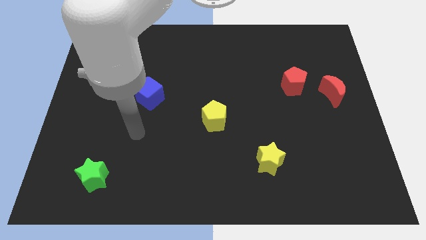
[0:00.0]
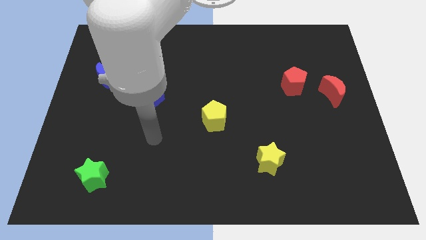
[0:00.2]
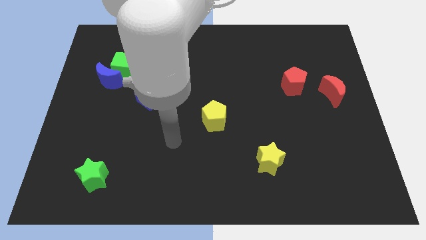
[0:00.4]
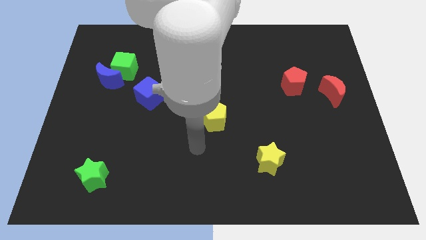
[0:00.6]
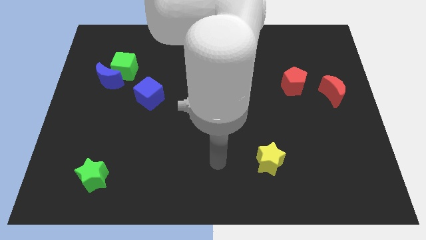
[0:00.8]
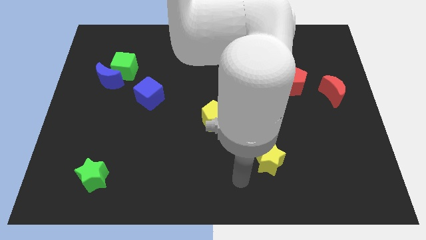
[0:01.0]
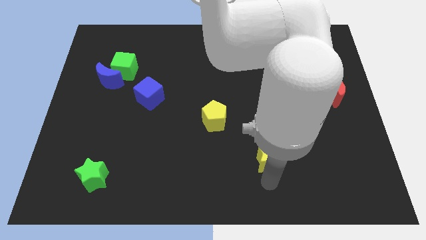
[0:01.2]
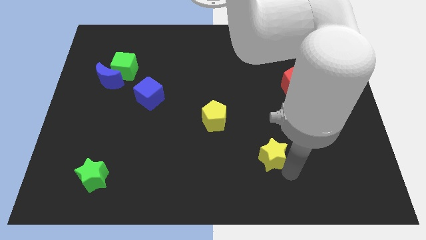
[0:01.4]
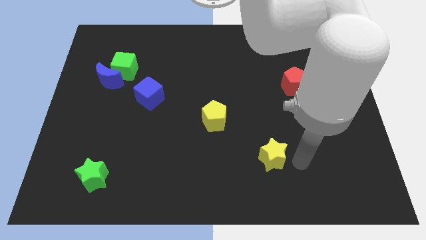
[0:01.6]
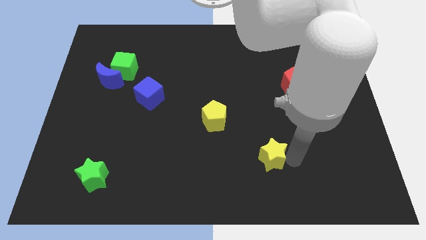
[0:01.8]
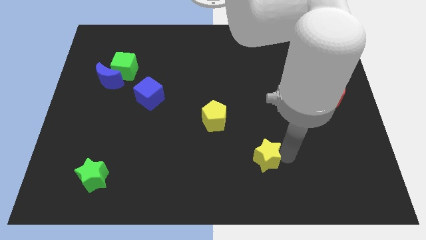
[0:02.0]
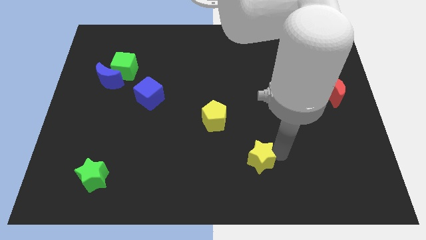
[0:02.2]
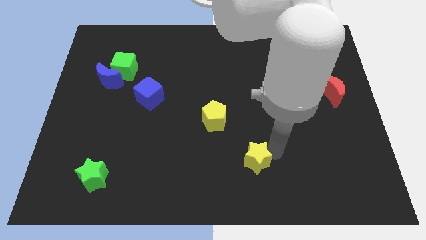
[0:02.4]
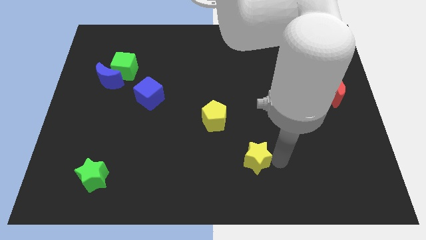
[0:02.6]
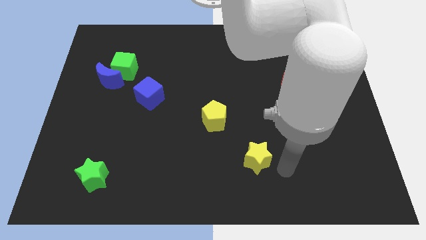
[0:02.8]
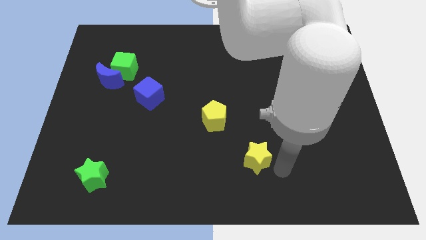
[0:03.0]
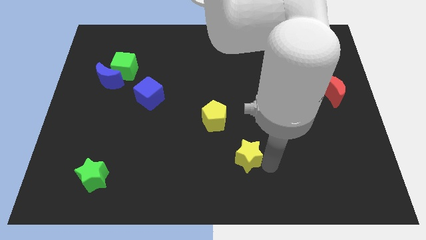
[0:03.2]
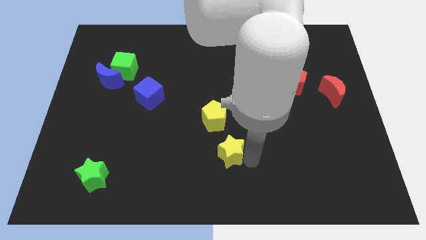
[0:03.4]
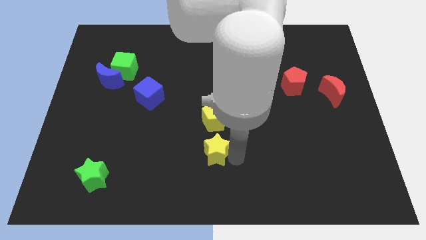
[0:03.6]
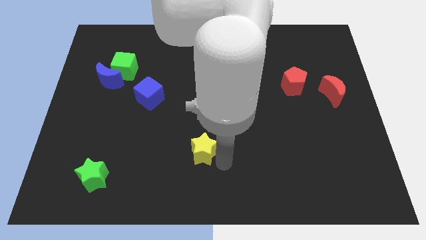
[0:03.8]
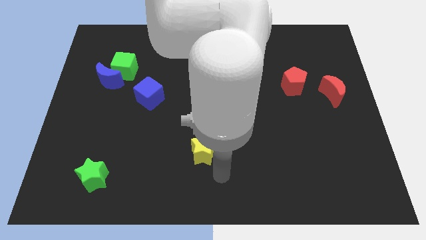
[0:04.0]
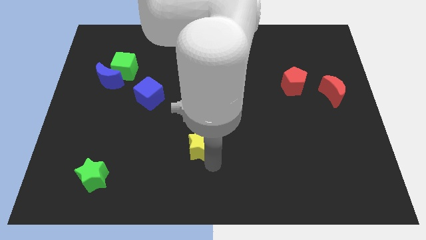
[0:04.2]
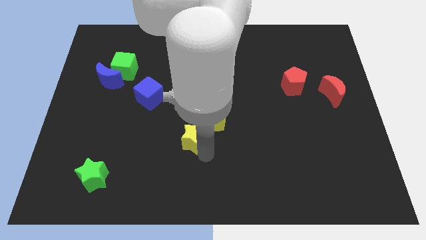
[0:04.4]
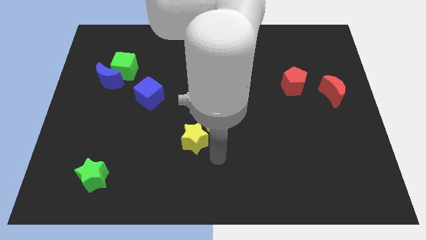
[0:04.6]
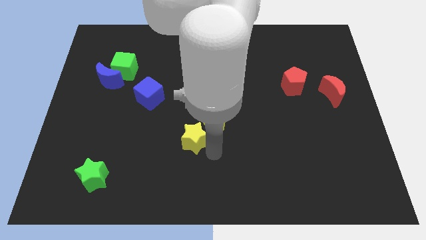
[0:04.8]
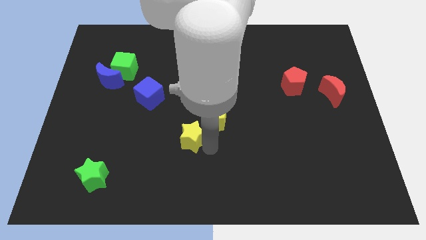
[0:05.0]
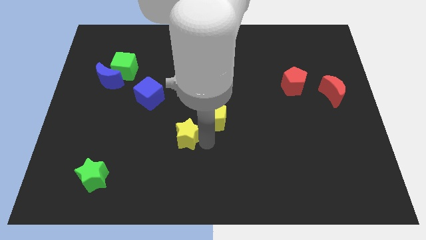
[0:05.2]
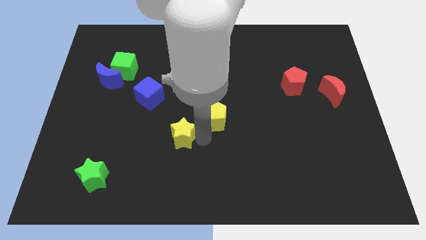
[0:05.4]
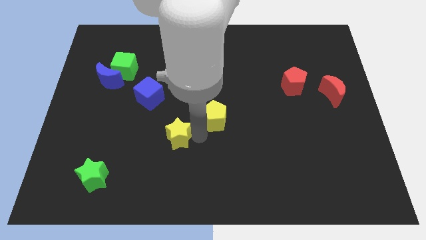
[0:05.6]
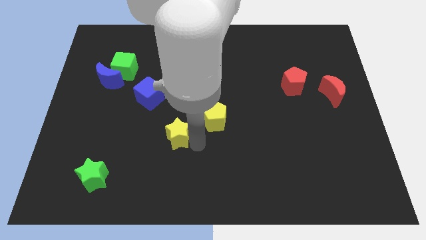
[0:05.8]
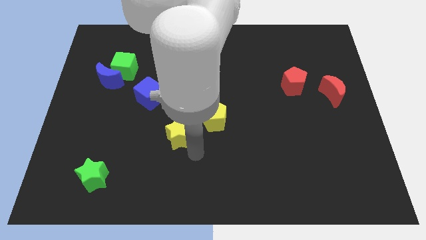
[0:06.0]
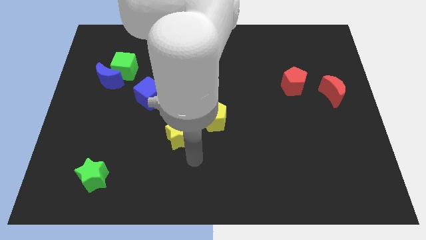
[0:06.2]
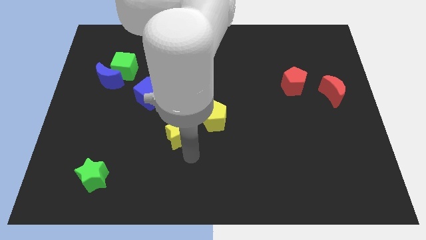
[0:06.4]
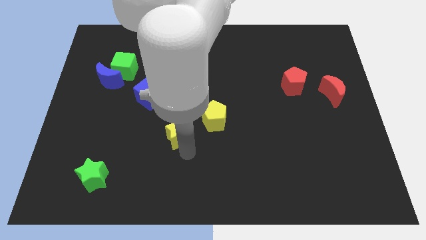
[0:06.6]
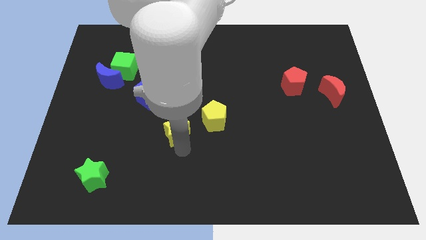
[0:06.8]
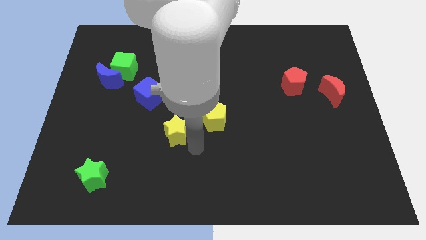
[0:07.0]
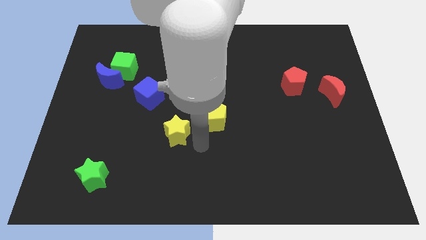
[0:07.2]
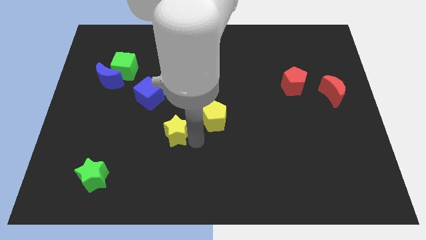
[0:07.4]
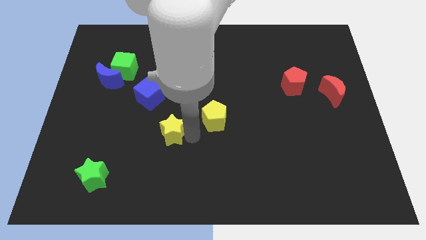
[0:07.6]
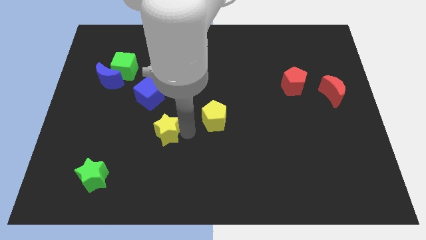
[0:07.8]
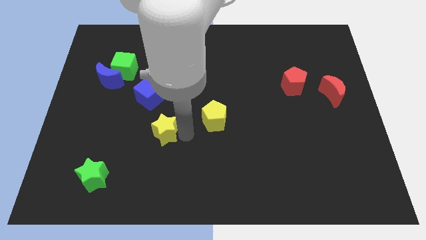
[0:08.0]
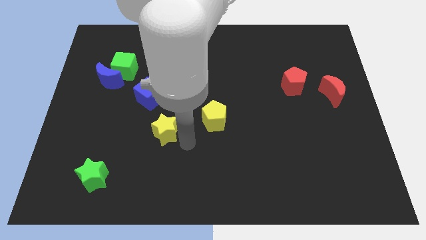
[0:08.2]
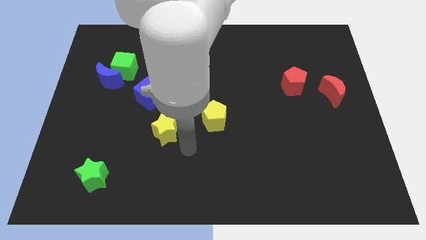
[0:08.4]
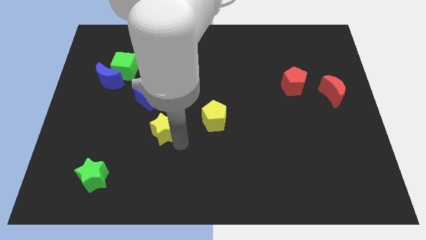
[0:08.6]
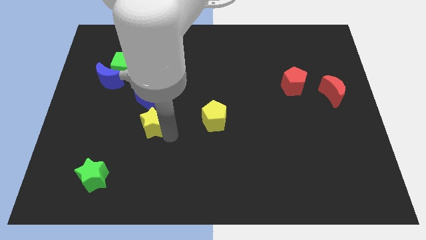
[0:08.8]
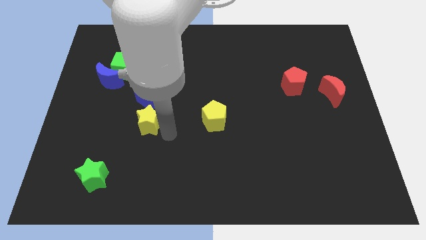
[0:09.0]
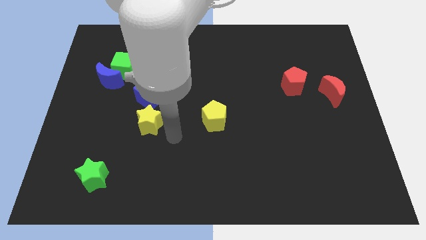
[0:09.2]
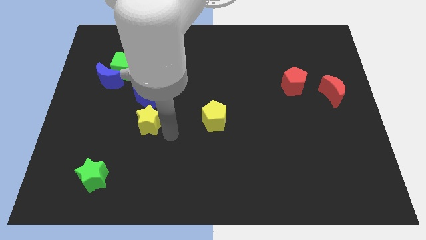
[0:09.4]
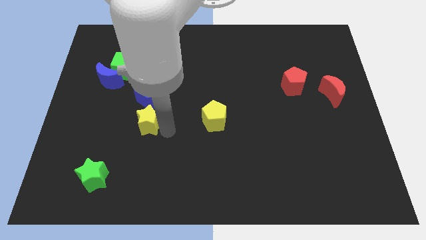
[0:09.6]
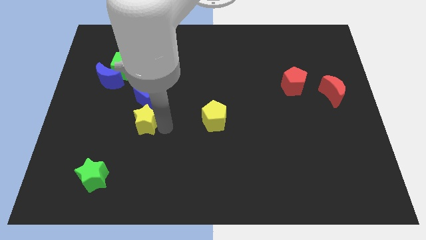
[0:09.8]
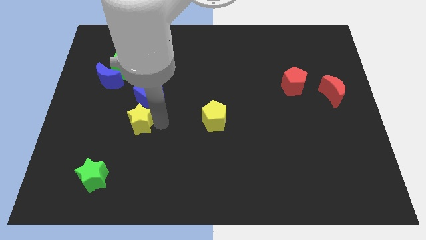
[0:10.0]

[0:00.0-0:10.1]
slide the yellow star to the bottom left side of the blue cube

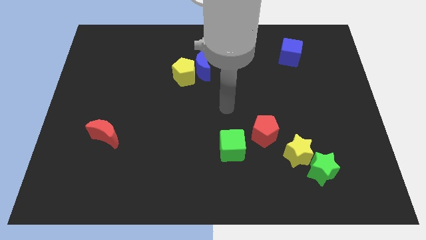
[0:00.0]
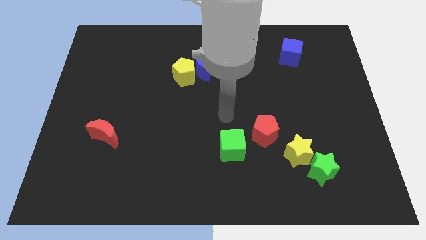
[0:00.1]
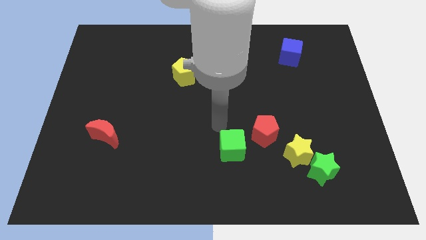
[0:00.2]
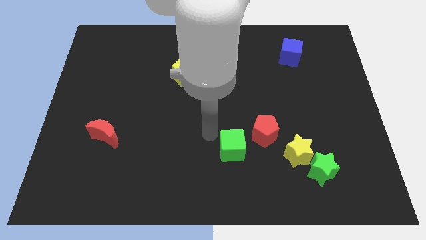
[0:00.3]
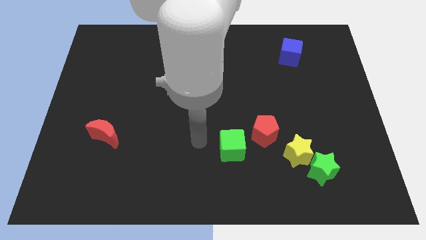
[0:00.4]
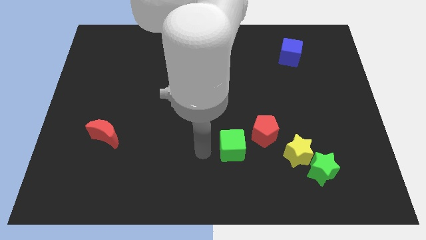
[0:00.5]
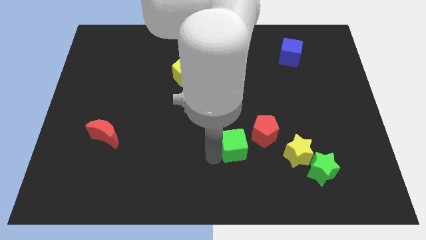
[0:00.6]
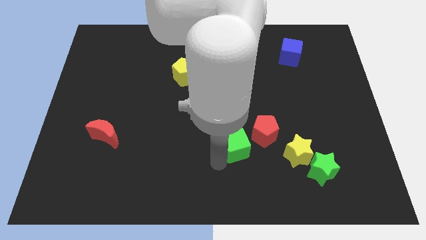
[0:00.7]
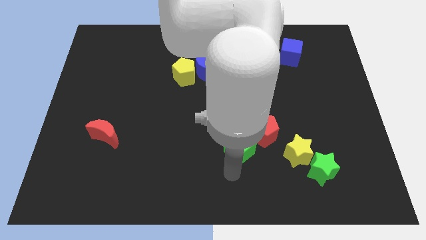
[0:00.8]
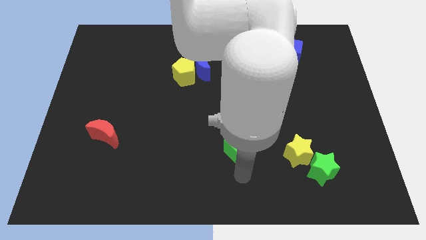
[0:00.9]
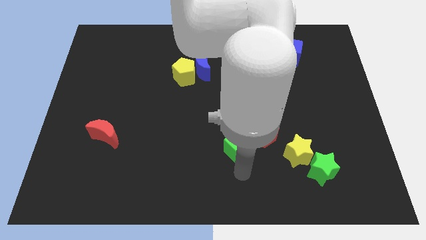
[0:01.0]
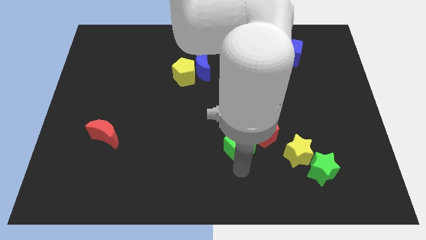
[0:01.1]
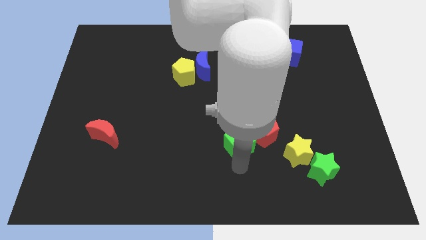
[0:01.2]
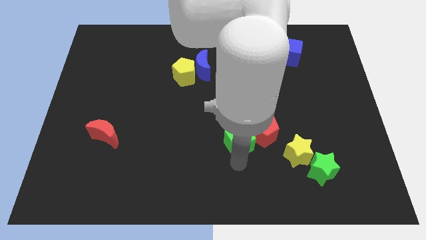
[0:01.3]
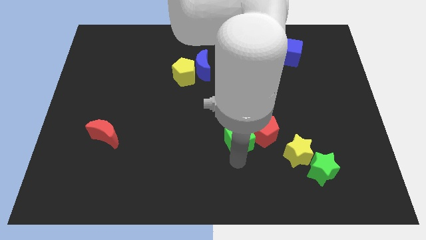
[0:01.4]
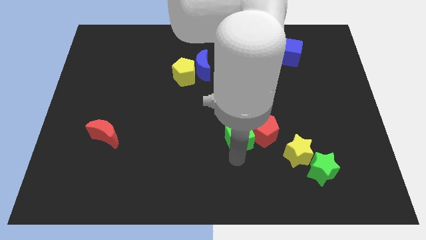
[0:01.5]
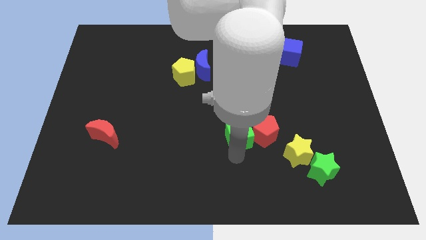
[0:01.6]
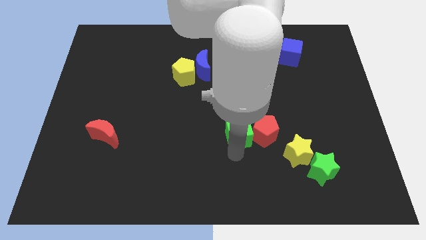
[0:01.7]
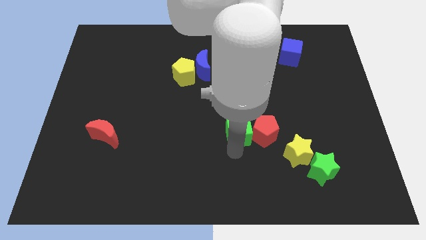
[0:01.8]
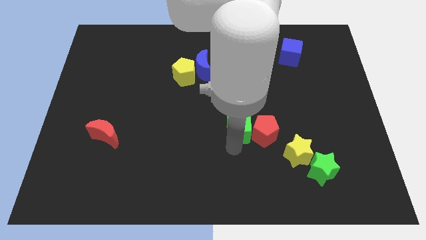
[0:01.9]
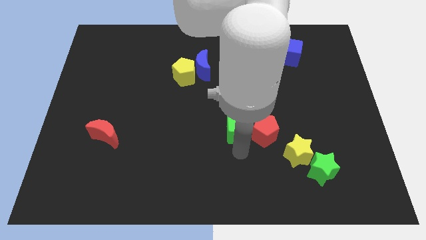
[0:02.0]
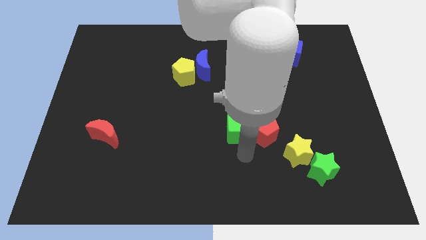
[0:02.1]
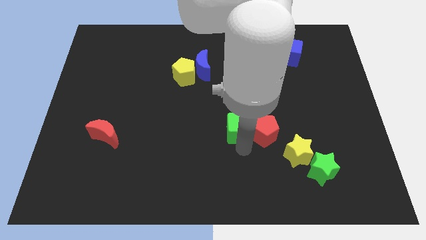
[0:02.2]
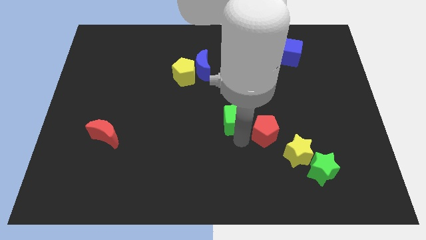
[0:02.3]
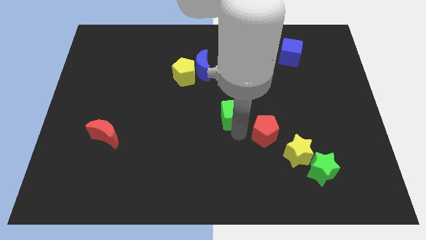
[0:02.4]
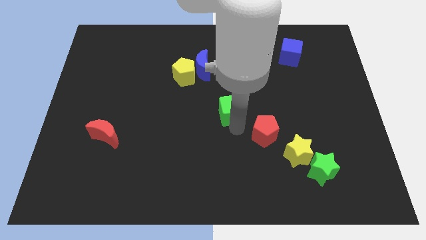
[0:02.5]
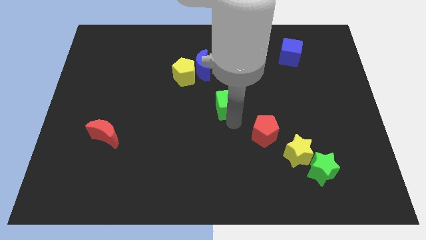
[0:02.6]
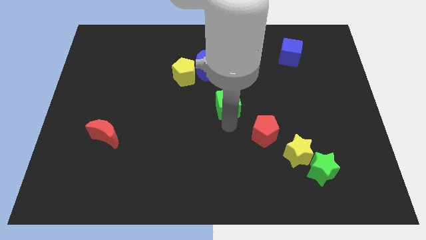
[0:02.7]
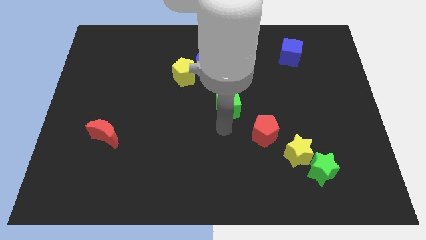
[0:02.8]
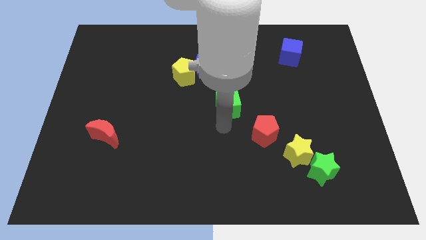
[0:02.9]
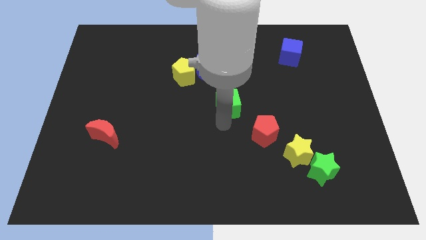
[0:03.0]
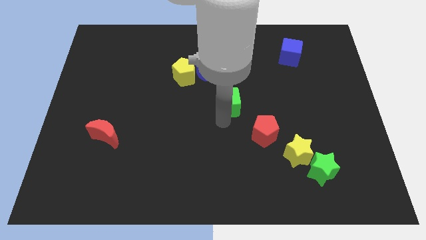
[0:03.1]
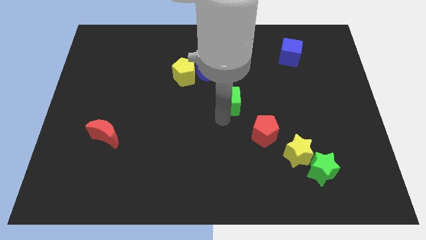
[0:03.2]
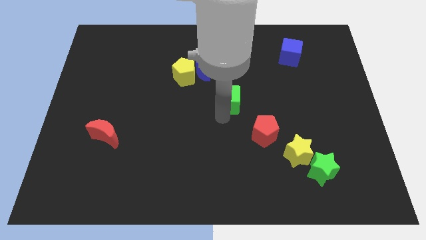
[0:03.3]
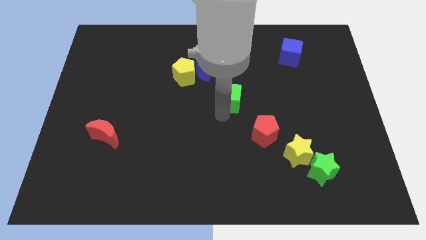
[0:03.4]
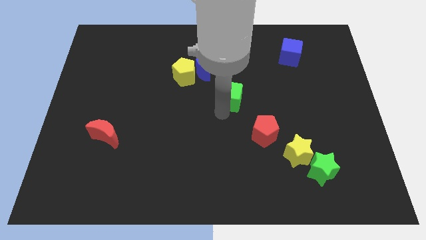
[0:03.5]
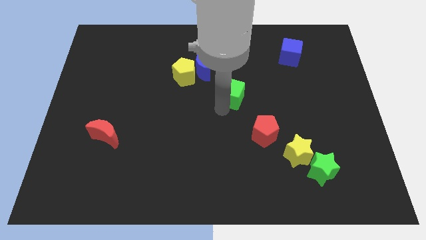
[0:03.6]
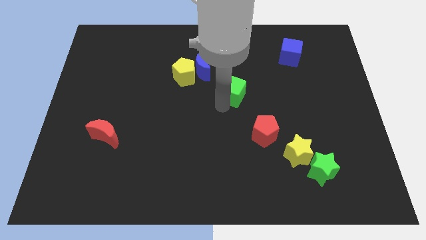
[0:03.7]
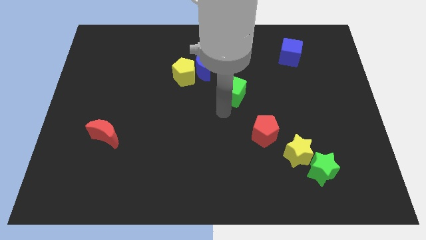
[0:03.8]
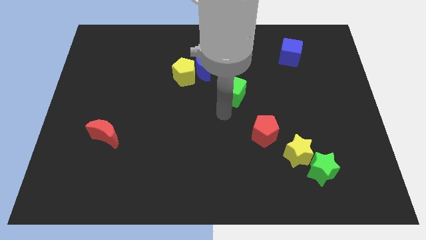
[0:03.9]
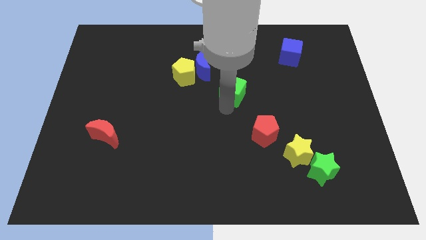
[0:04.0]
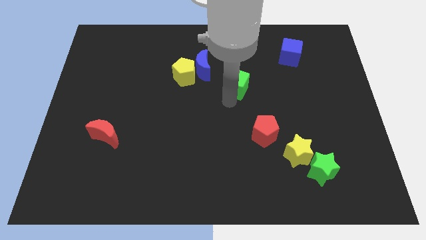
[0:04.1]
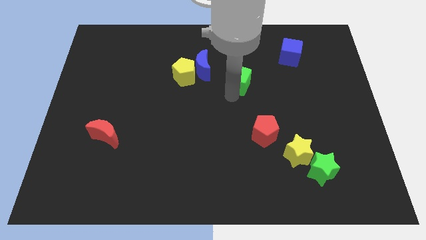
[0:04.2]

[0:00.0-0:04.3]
put the green cube just right of the blue moon
